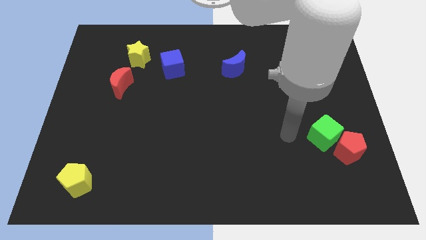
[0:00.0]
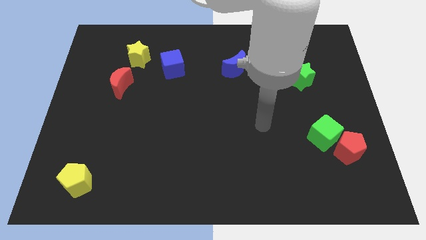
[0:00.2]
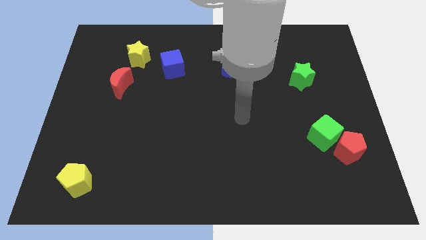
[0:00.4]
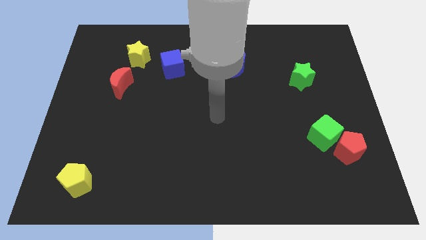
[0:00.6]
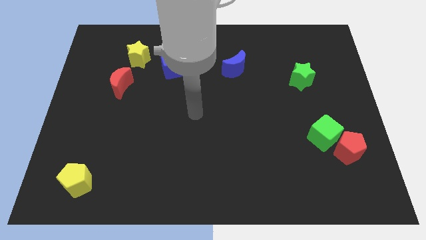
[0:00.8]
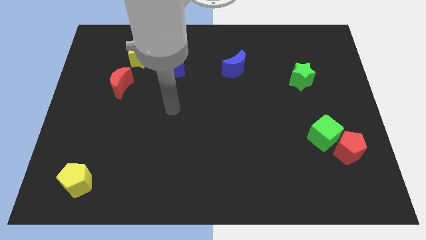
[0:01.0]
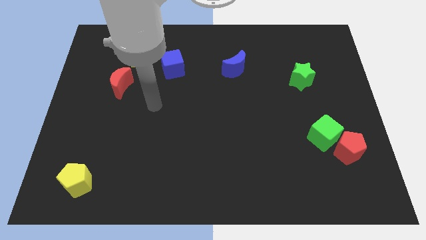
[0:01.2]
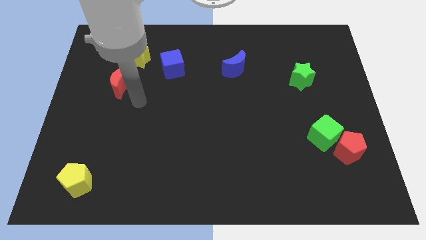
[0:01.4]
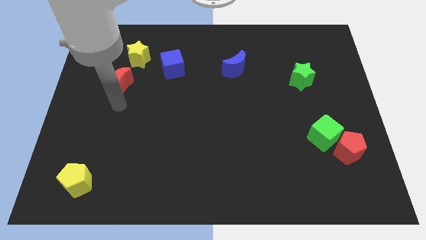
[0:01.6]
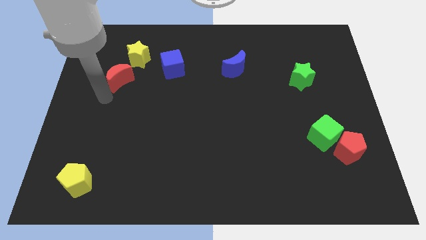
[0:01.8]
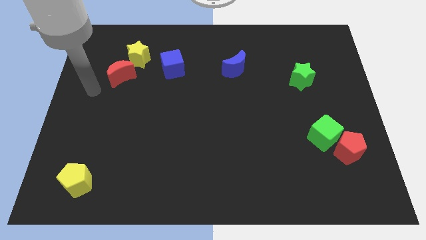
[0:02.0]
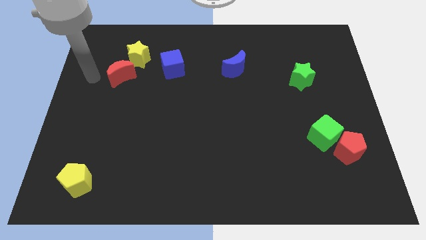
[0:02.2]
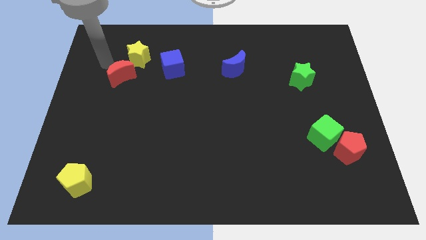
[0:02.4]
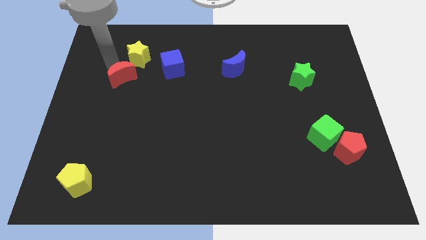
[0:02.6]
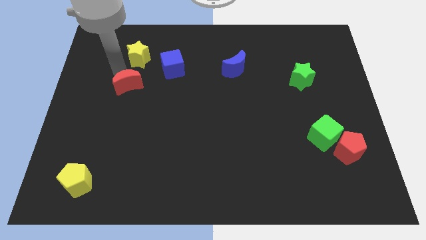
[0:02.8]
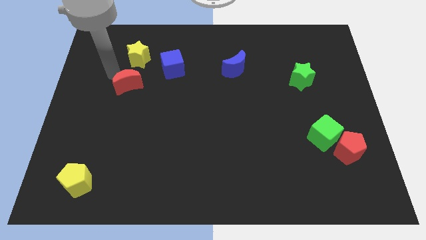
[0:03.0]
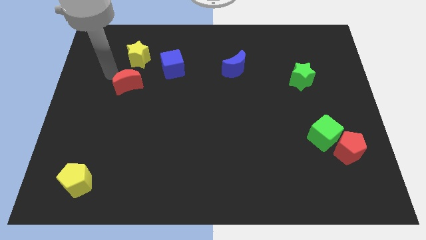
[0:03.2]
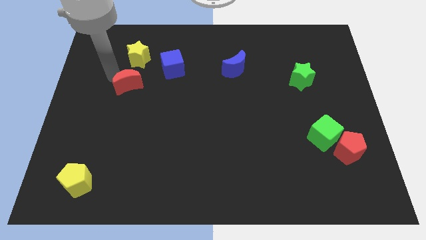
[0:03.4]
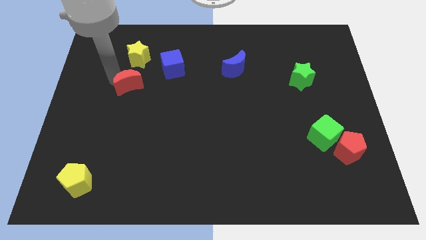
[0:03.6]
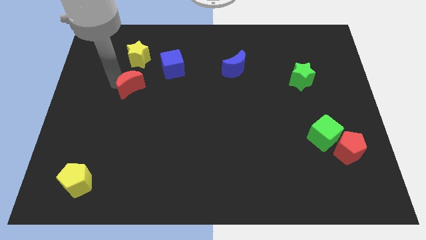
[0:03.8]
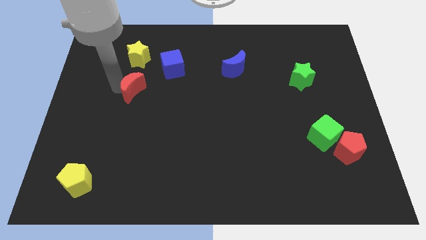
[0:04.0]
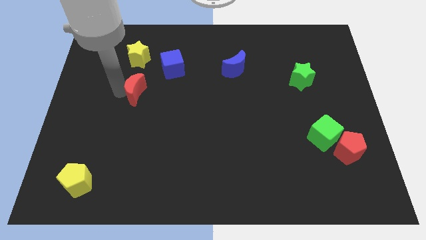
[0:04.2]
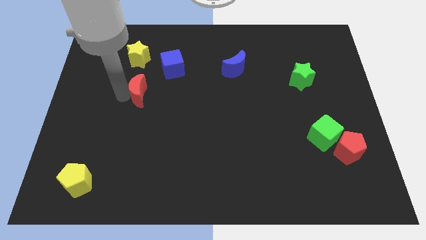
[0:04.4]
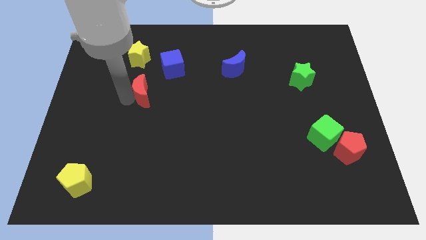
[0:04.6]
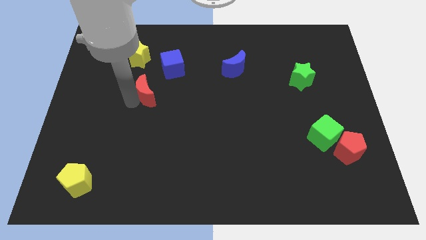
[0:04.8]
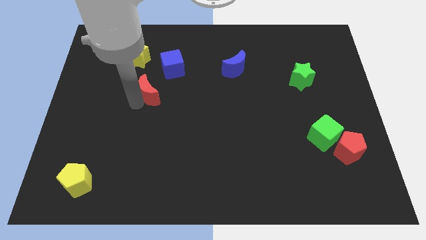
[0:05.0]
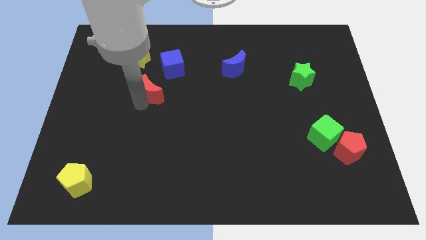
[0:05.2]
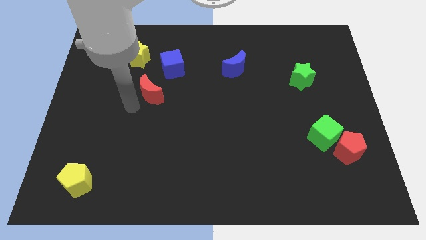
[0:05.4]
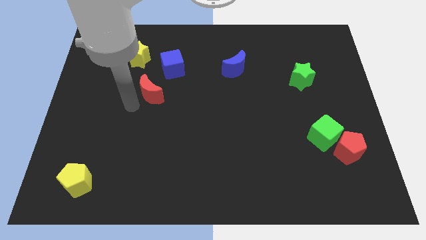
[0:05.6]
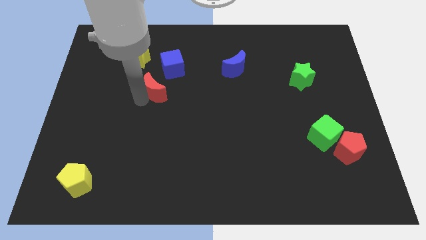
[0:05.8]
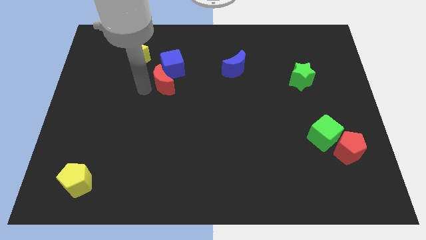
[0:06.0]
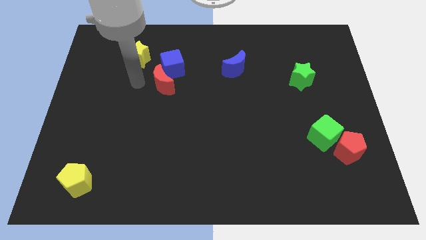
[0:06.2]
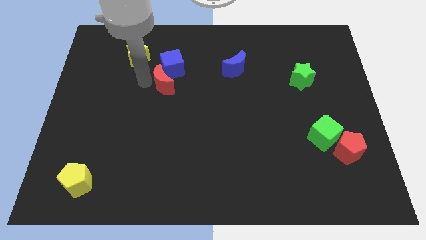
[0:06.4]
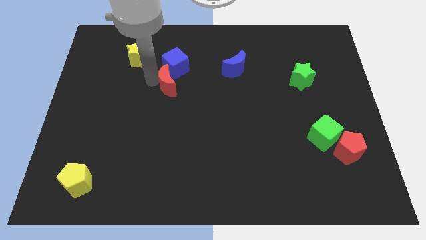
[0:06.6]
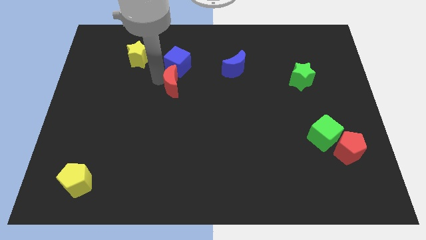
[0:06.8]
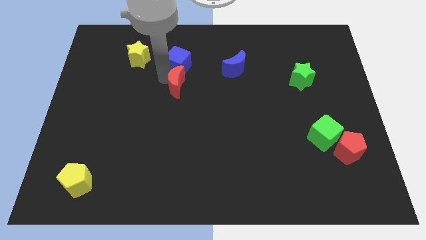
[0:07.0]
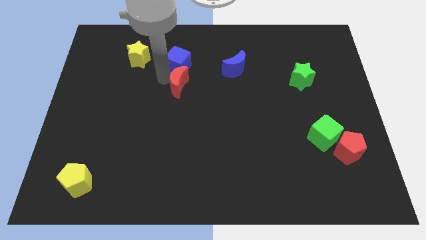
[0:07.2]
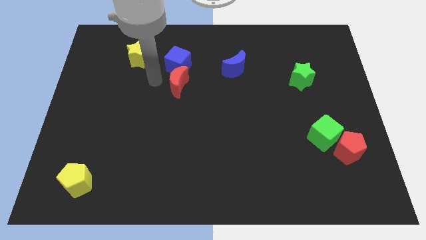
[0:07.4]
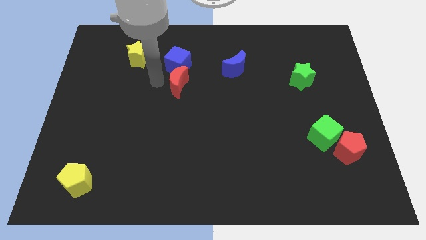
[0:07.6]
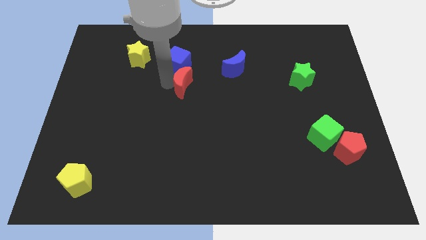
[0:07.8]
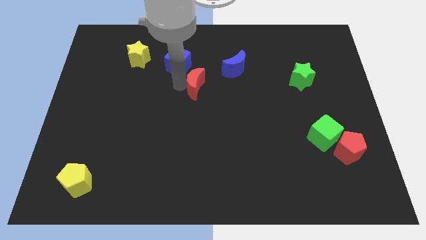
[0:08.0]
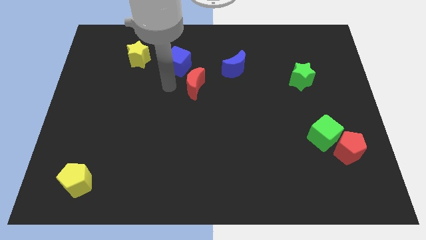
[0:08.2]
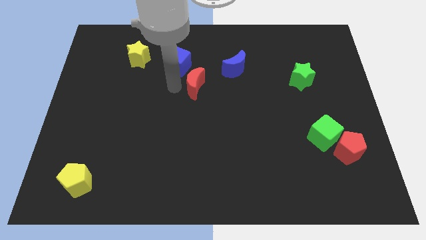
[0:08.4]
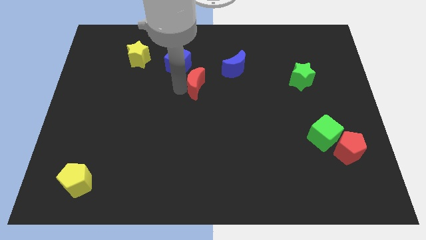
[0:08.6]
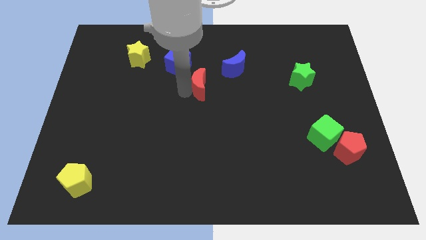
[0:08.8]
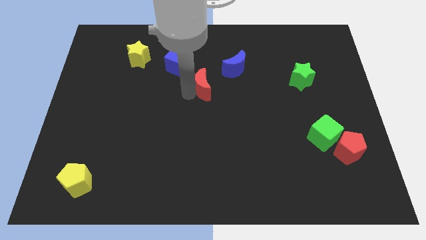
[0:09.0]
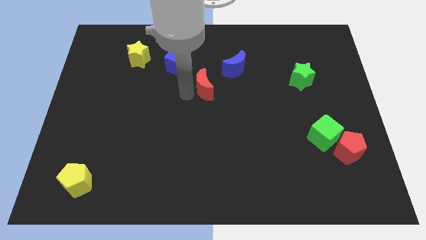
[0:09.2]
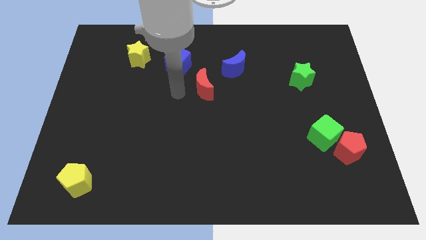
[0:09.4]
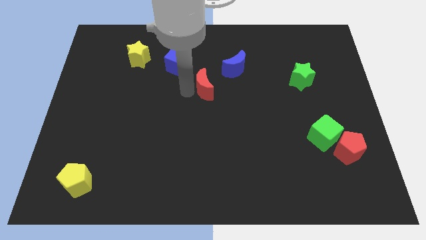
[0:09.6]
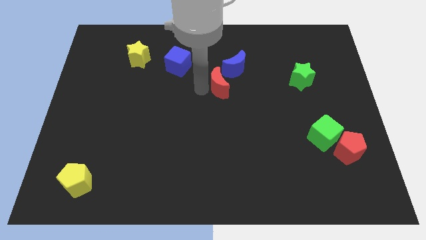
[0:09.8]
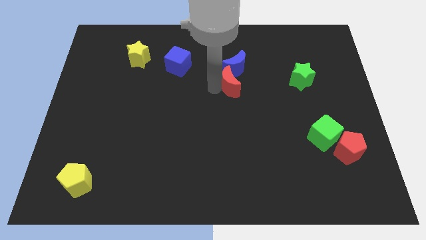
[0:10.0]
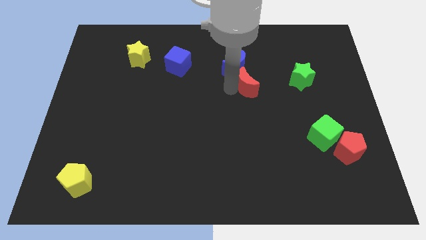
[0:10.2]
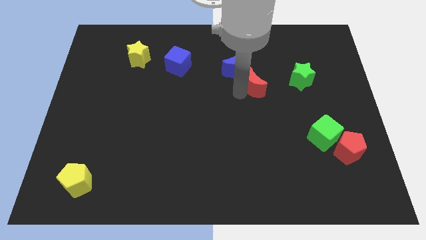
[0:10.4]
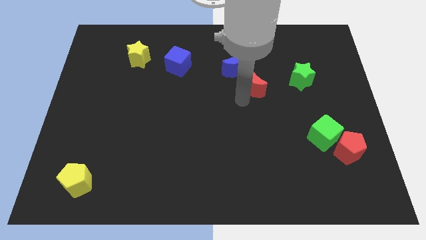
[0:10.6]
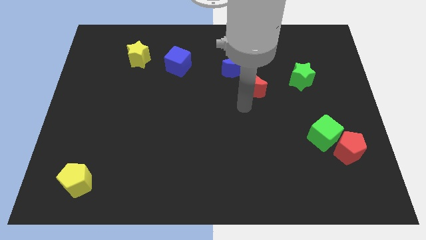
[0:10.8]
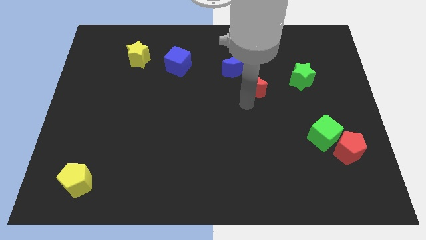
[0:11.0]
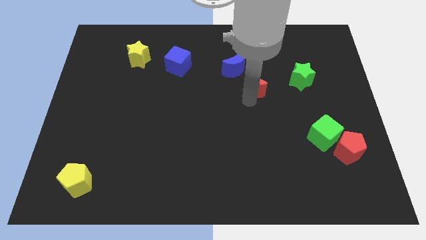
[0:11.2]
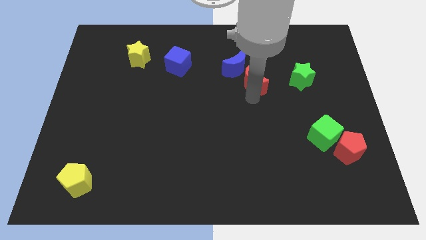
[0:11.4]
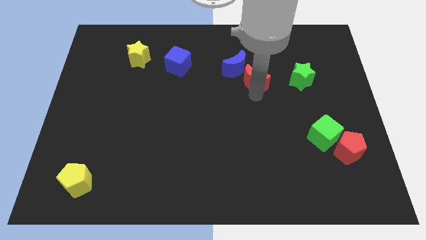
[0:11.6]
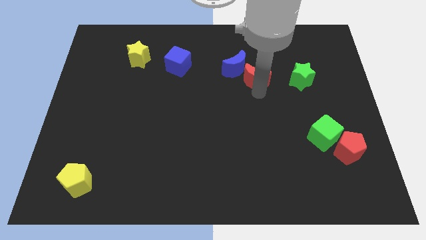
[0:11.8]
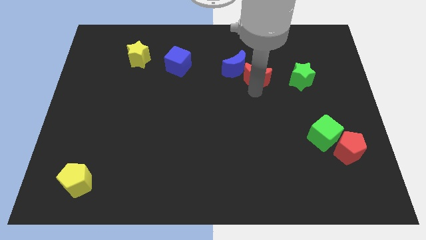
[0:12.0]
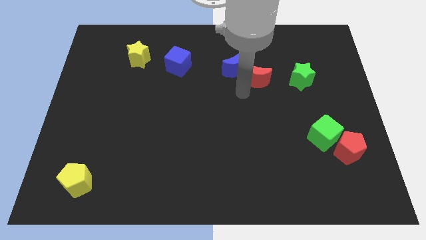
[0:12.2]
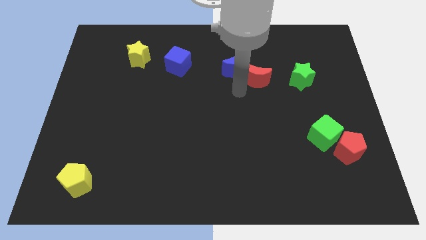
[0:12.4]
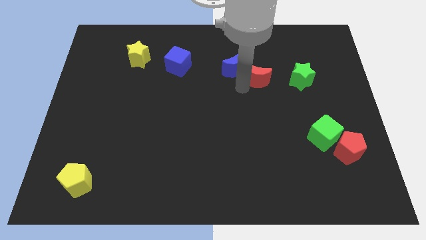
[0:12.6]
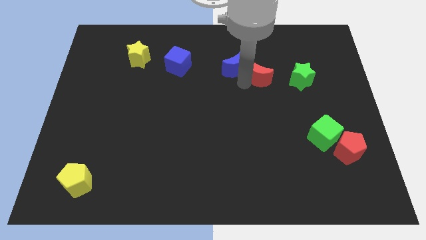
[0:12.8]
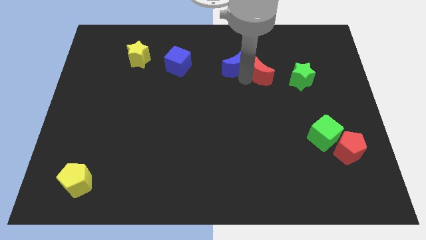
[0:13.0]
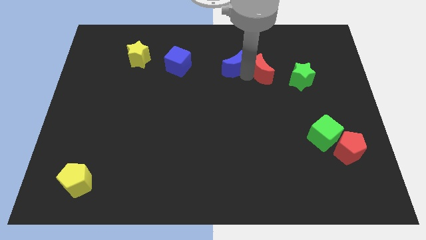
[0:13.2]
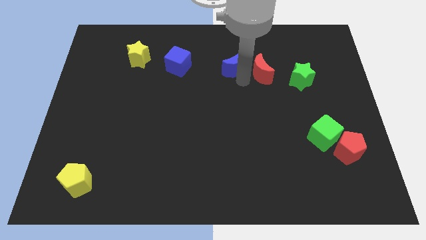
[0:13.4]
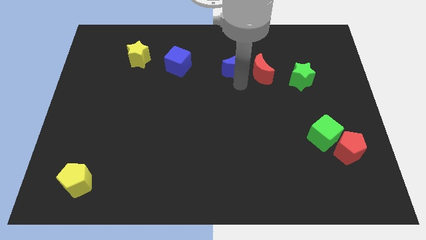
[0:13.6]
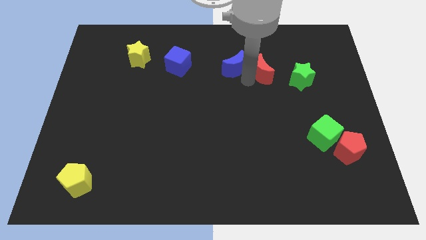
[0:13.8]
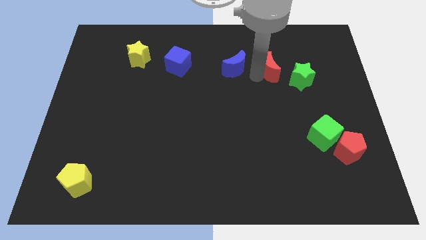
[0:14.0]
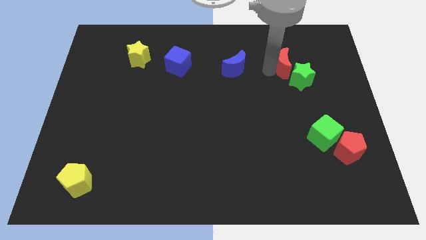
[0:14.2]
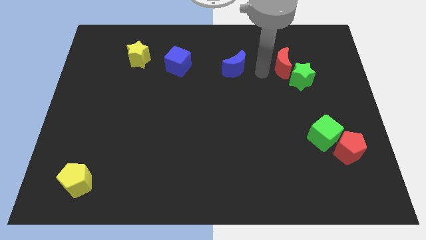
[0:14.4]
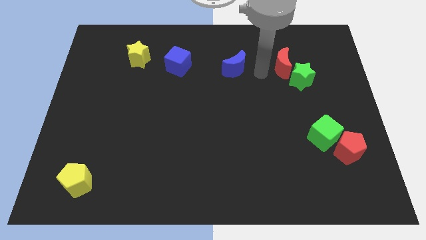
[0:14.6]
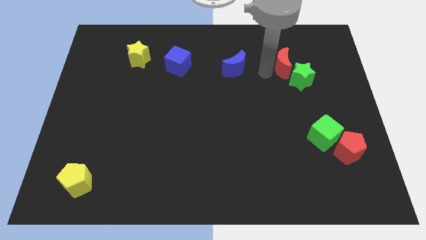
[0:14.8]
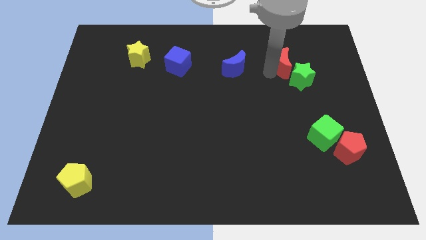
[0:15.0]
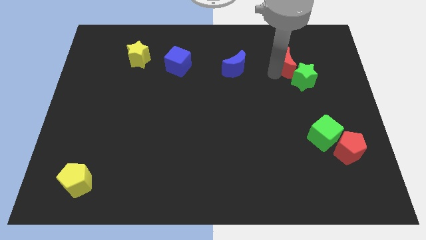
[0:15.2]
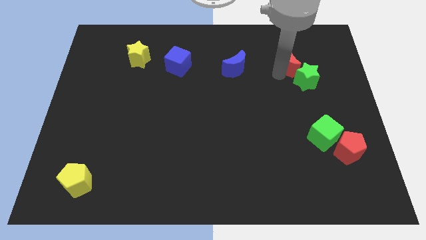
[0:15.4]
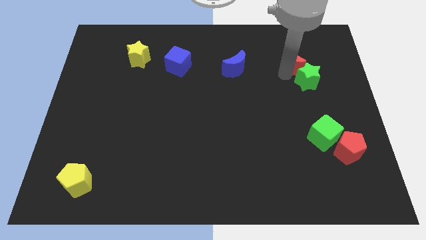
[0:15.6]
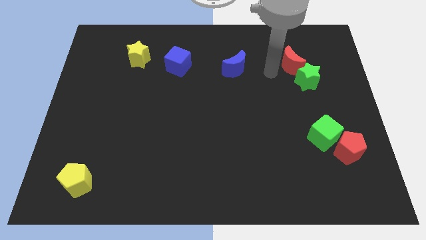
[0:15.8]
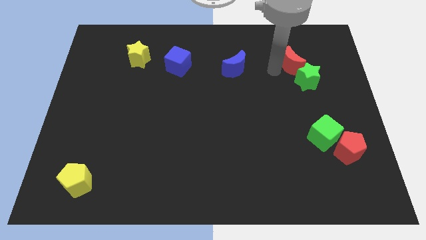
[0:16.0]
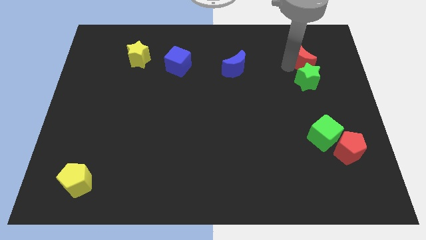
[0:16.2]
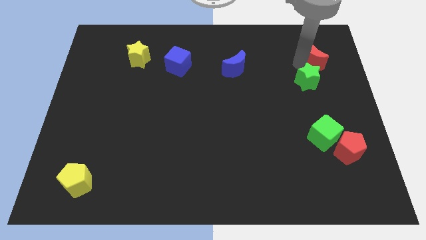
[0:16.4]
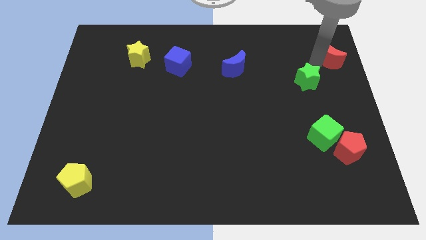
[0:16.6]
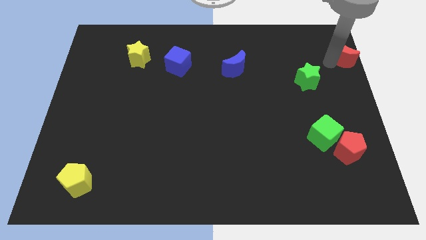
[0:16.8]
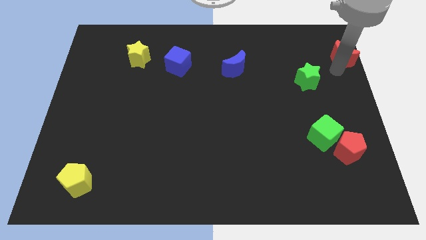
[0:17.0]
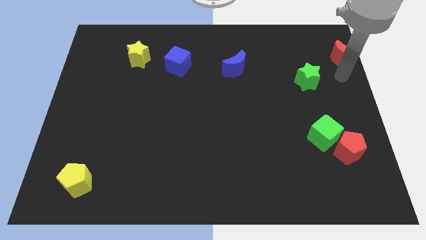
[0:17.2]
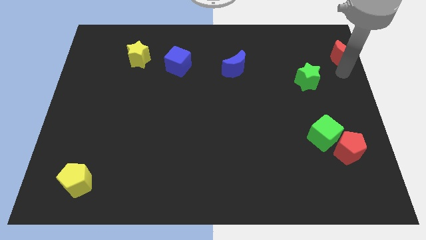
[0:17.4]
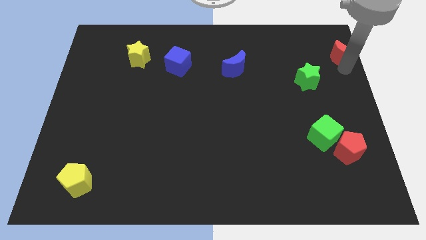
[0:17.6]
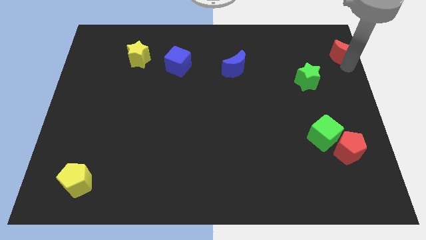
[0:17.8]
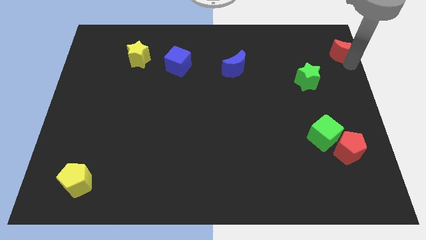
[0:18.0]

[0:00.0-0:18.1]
slide the red moon to the top right corner
